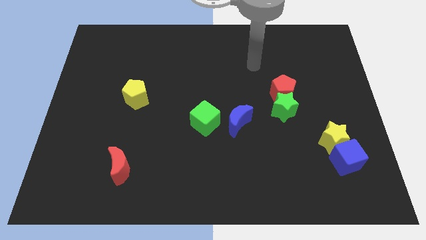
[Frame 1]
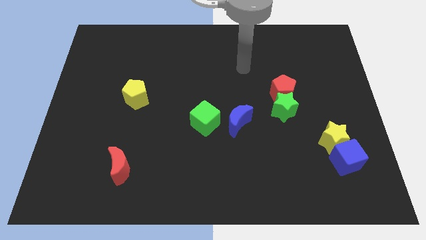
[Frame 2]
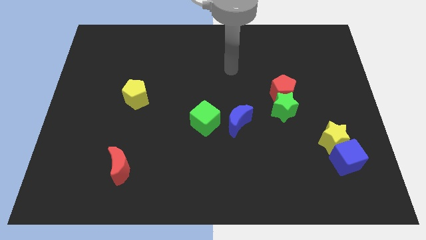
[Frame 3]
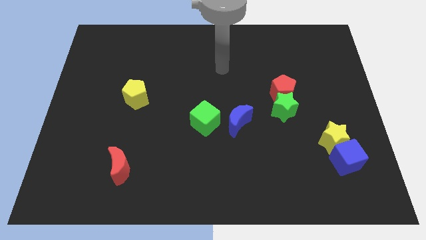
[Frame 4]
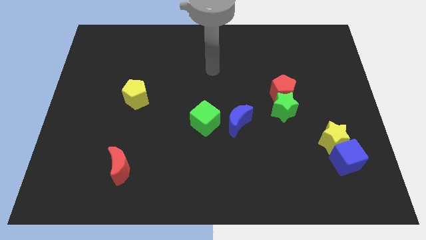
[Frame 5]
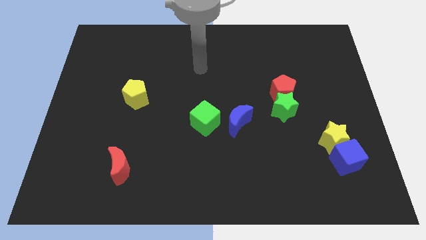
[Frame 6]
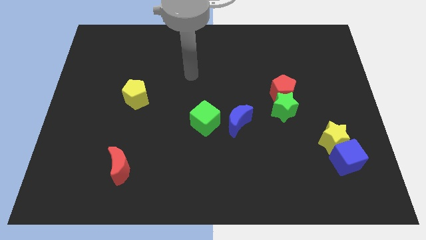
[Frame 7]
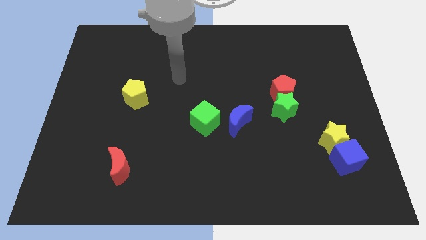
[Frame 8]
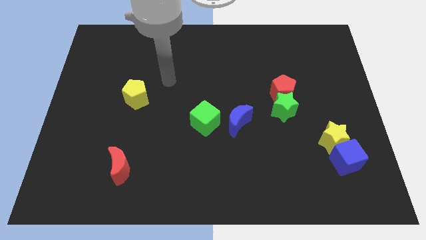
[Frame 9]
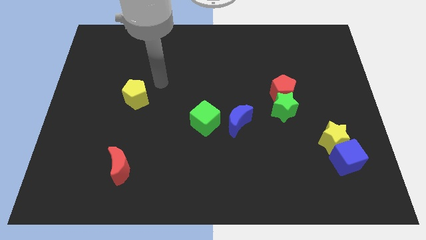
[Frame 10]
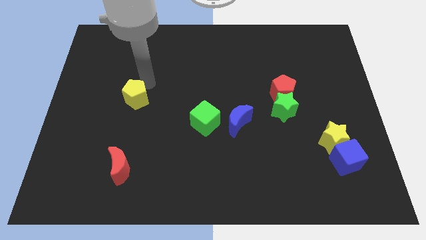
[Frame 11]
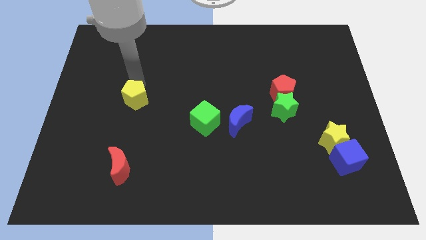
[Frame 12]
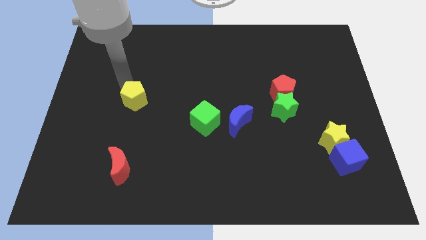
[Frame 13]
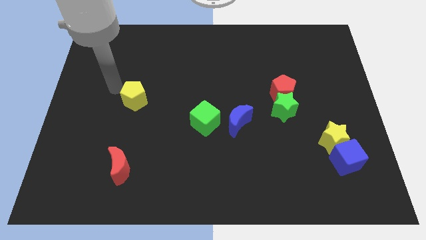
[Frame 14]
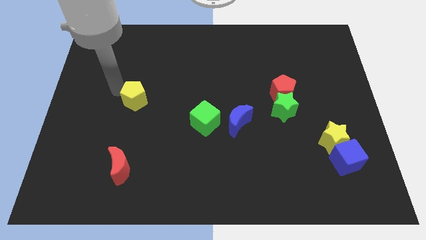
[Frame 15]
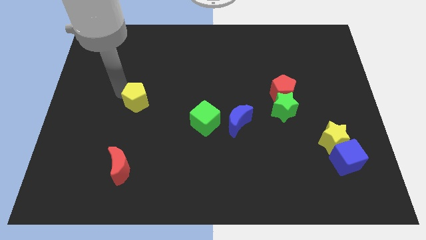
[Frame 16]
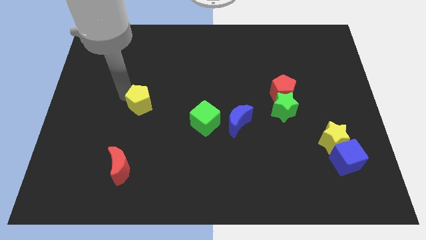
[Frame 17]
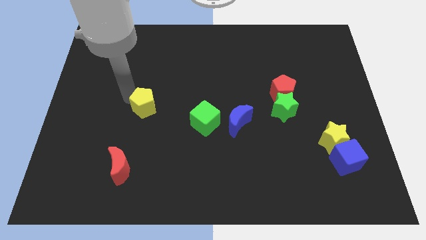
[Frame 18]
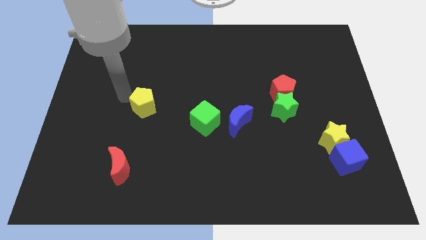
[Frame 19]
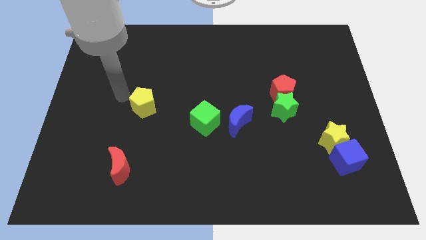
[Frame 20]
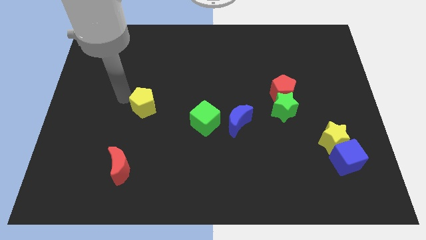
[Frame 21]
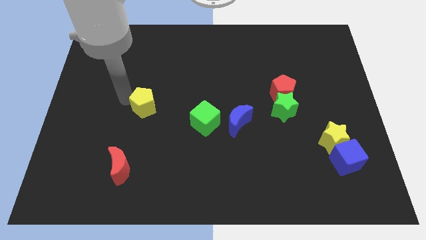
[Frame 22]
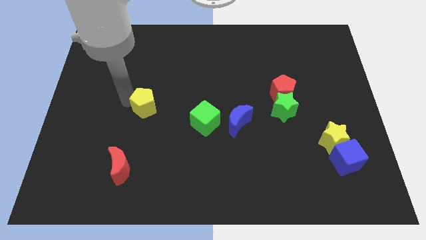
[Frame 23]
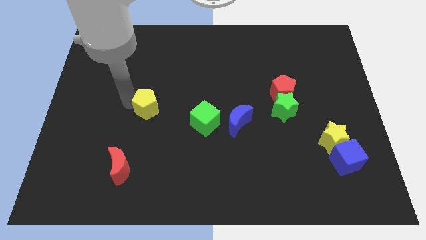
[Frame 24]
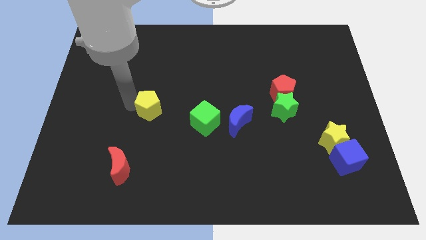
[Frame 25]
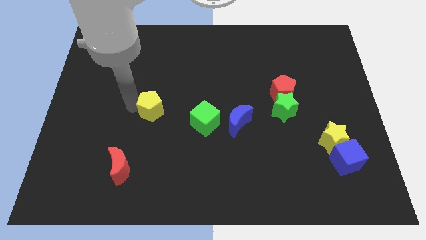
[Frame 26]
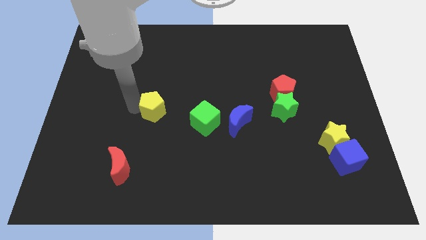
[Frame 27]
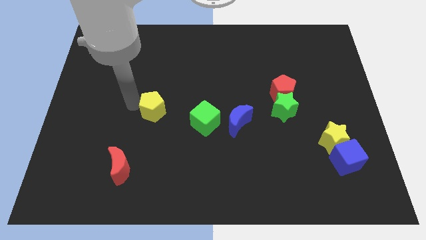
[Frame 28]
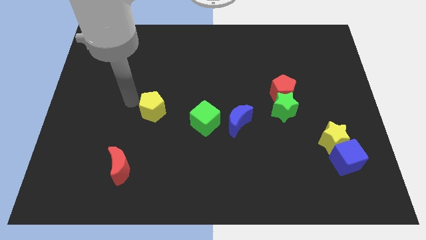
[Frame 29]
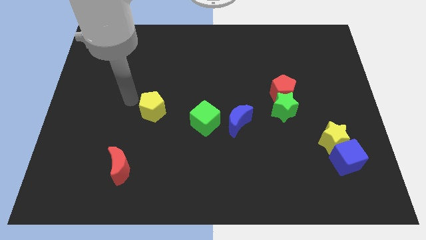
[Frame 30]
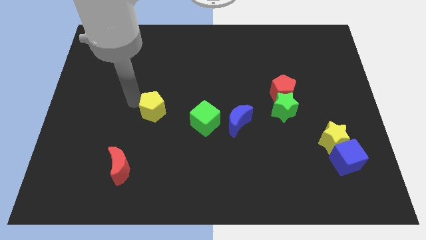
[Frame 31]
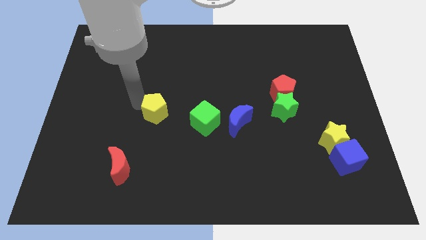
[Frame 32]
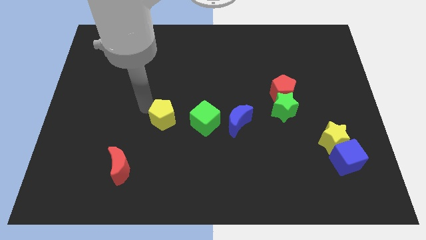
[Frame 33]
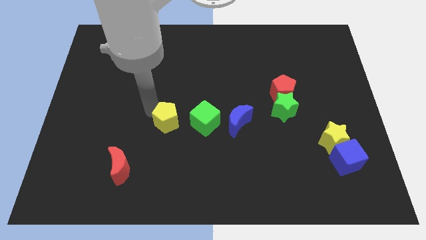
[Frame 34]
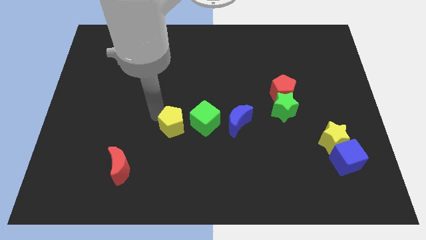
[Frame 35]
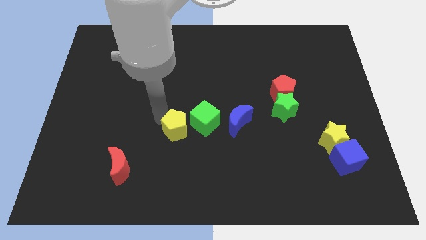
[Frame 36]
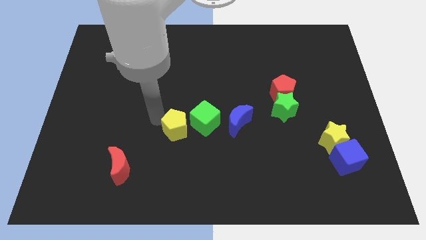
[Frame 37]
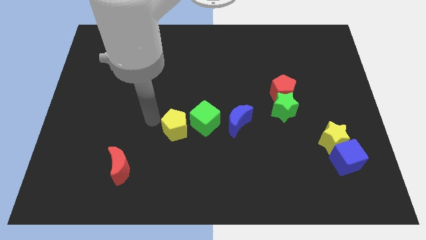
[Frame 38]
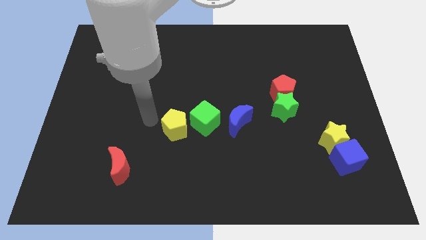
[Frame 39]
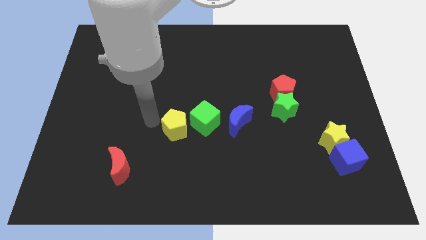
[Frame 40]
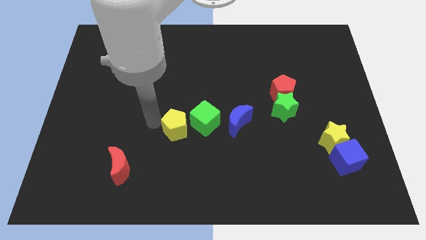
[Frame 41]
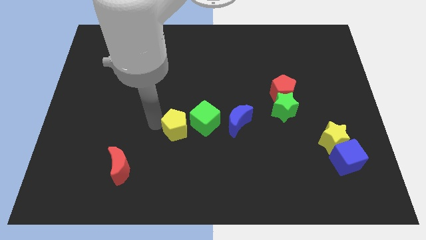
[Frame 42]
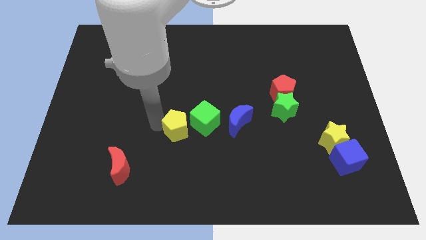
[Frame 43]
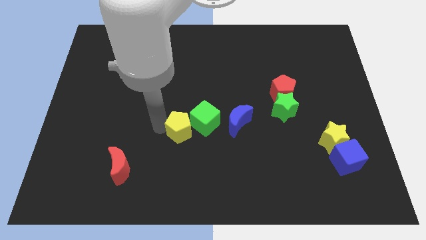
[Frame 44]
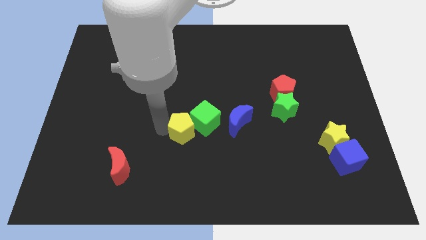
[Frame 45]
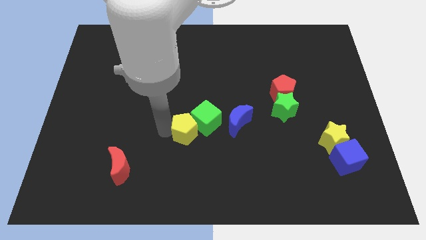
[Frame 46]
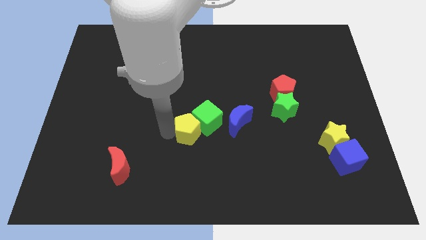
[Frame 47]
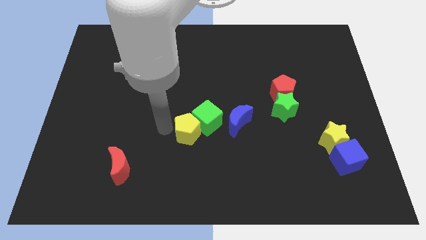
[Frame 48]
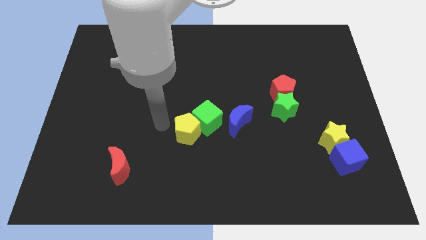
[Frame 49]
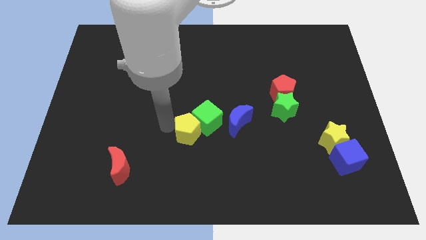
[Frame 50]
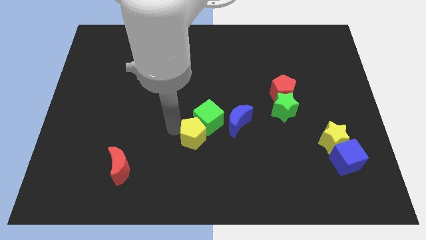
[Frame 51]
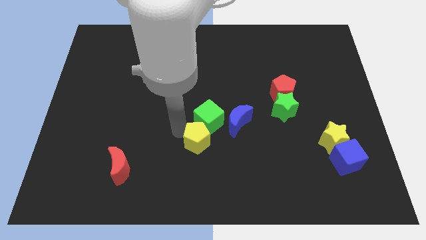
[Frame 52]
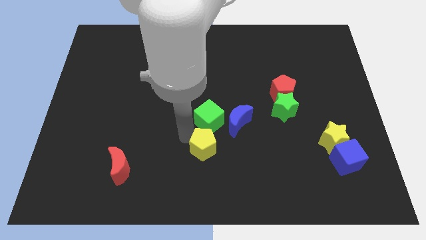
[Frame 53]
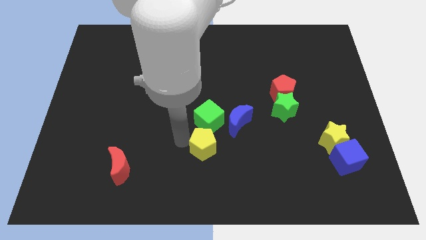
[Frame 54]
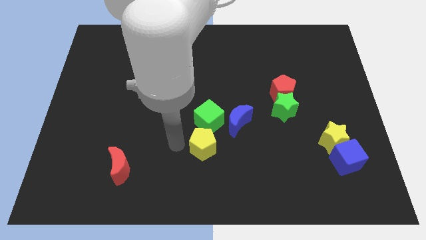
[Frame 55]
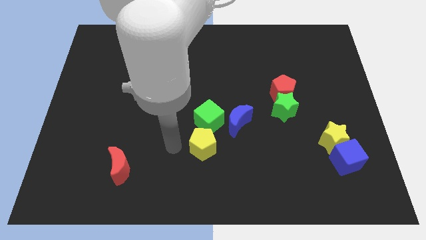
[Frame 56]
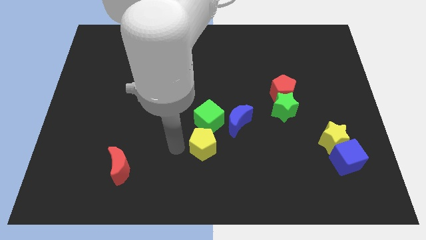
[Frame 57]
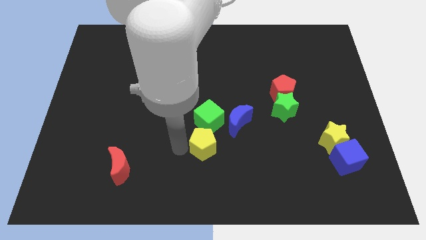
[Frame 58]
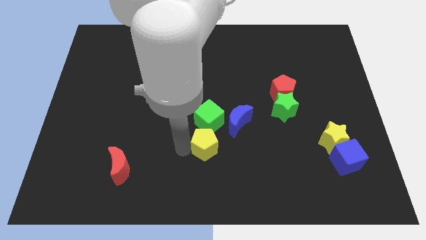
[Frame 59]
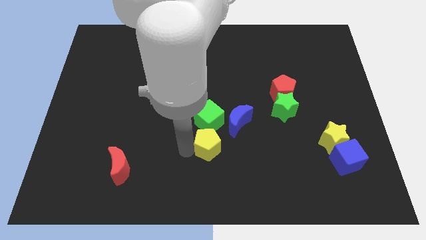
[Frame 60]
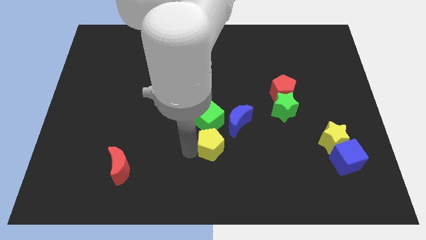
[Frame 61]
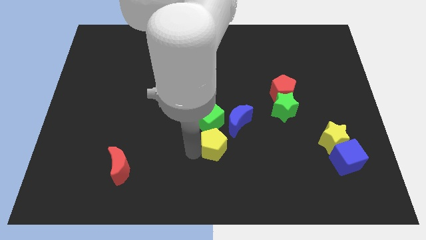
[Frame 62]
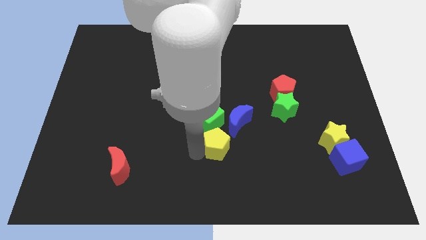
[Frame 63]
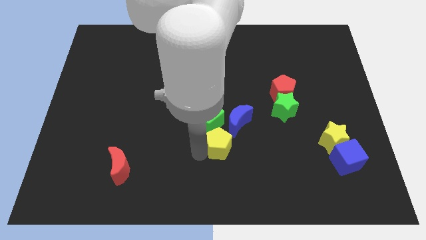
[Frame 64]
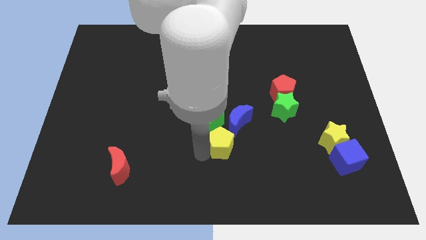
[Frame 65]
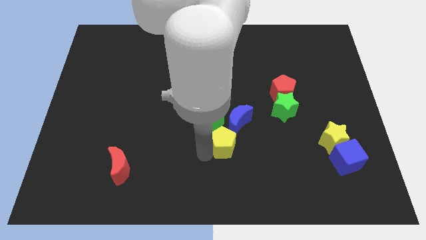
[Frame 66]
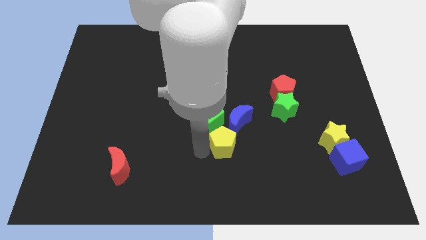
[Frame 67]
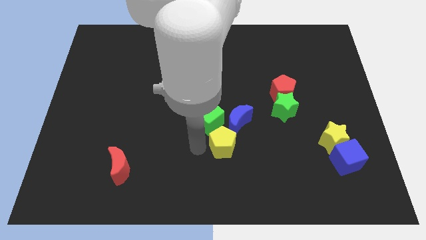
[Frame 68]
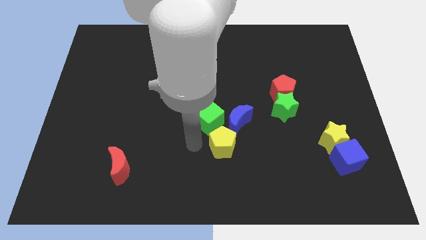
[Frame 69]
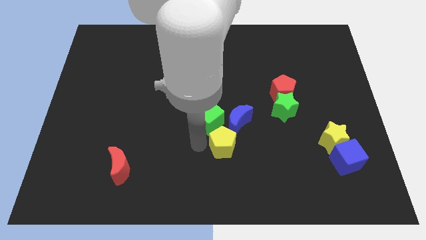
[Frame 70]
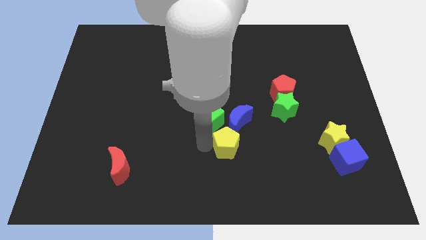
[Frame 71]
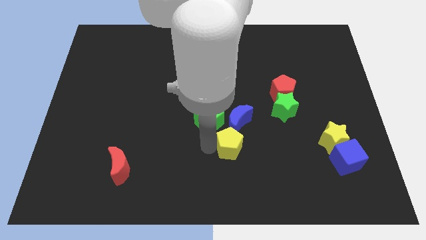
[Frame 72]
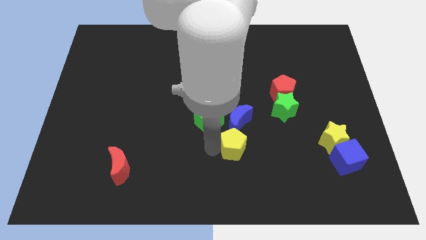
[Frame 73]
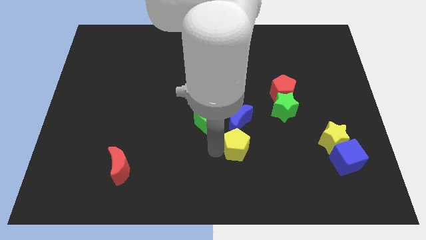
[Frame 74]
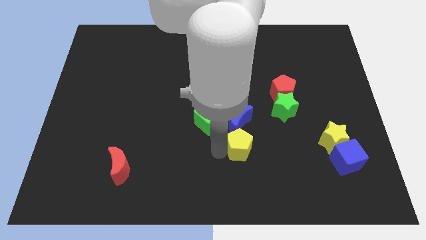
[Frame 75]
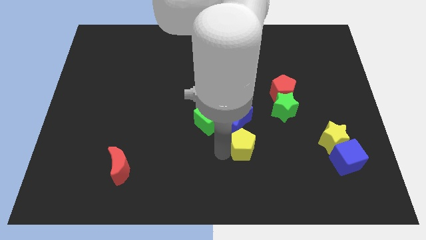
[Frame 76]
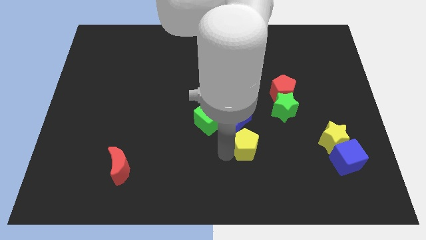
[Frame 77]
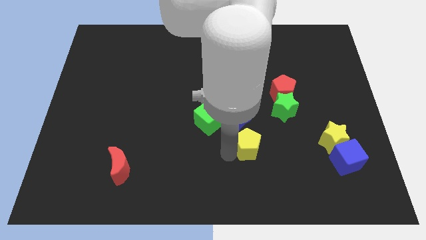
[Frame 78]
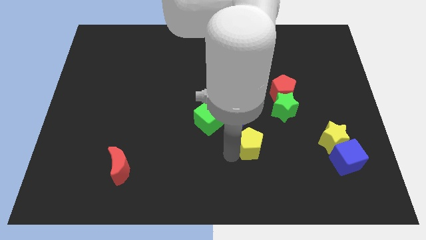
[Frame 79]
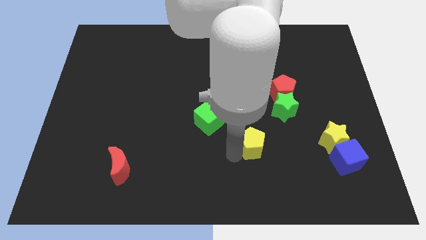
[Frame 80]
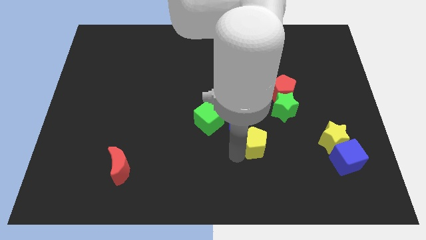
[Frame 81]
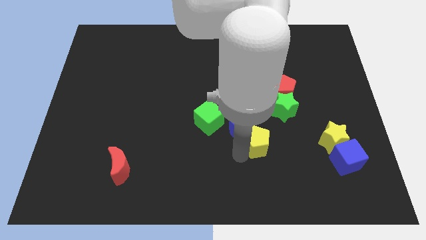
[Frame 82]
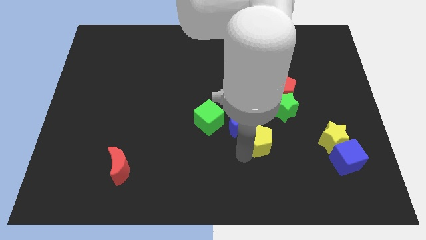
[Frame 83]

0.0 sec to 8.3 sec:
slide the yellow pentagon just left of the yellow star
